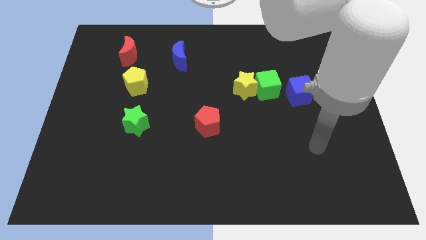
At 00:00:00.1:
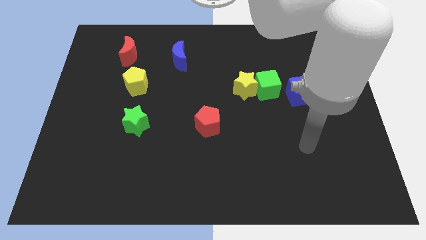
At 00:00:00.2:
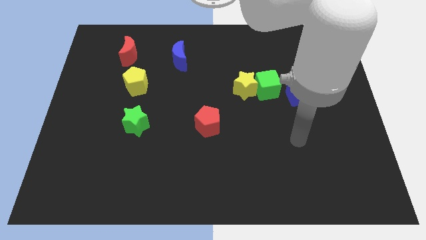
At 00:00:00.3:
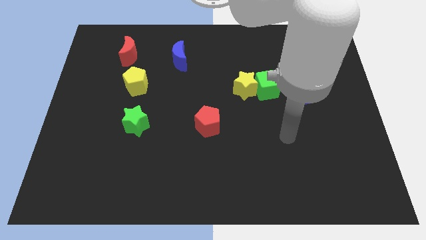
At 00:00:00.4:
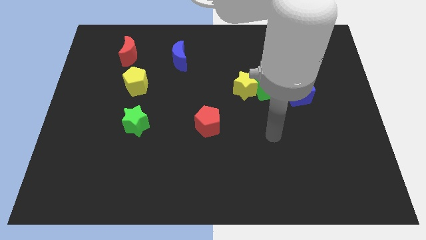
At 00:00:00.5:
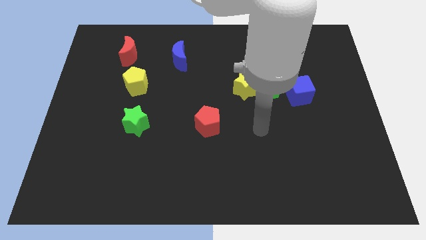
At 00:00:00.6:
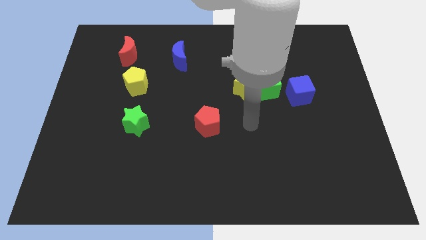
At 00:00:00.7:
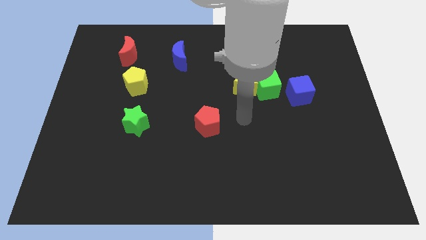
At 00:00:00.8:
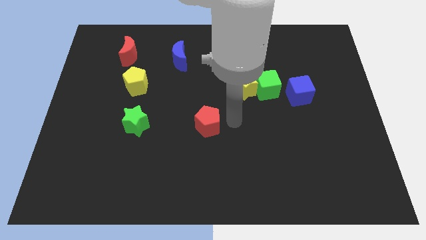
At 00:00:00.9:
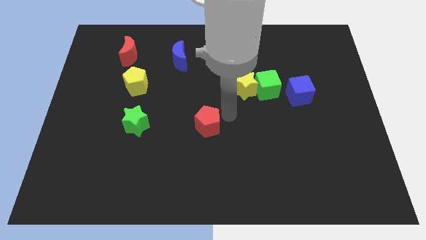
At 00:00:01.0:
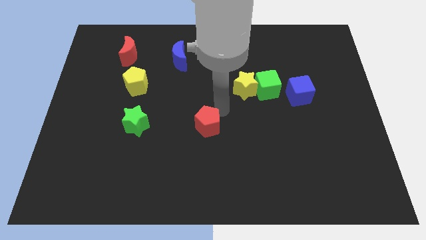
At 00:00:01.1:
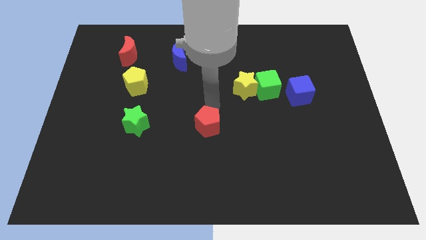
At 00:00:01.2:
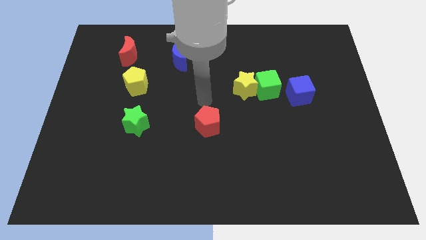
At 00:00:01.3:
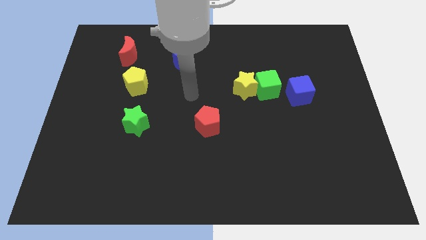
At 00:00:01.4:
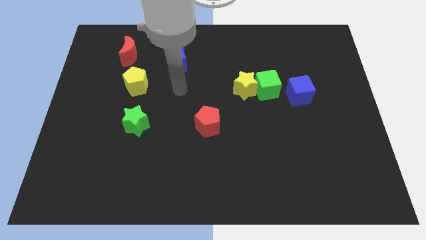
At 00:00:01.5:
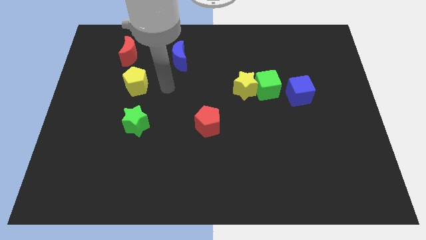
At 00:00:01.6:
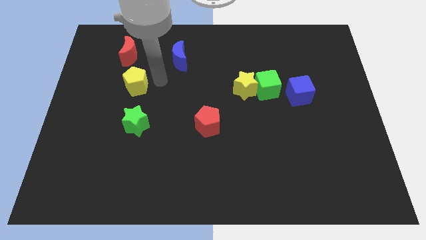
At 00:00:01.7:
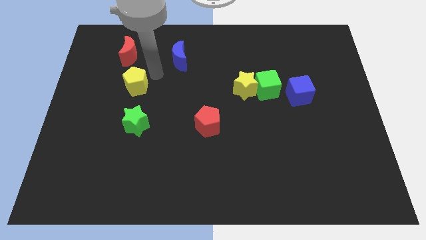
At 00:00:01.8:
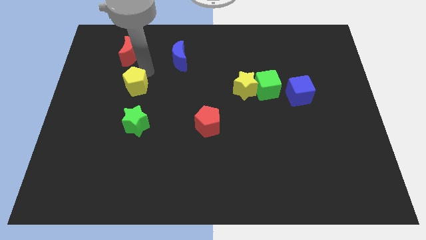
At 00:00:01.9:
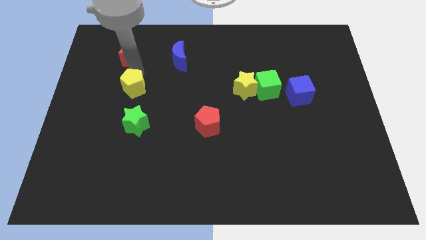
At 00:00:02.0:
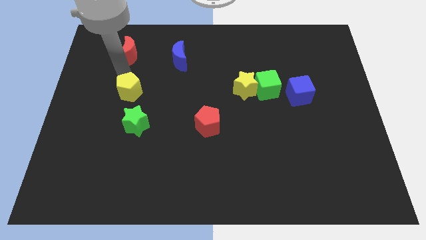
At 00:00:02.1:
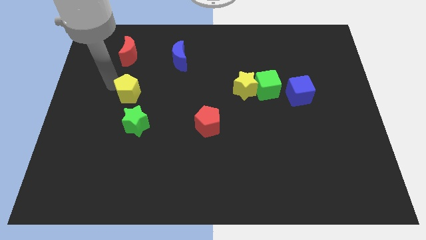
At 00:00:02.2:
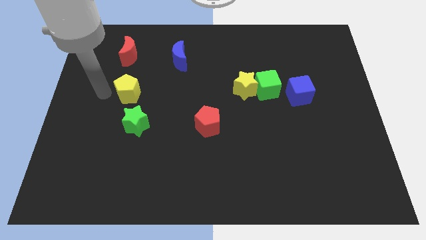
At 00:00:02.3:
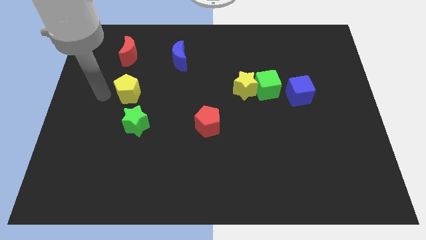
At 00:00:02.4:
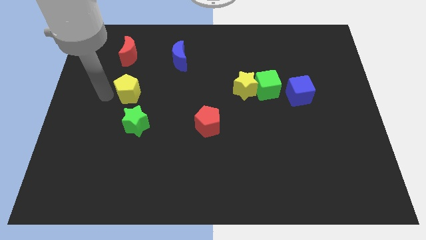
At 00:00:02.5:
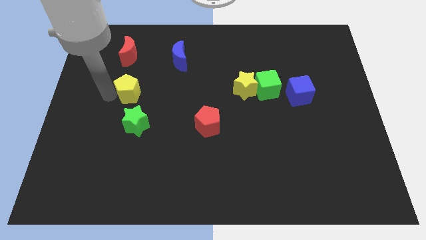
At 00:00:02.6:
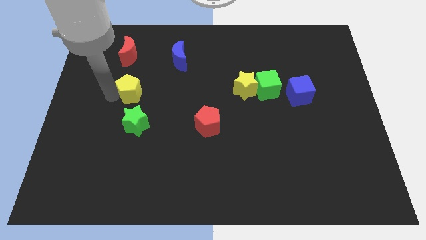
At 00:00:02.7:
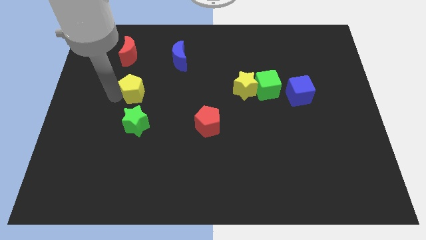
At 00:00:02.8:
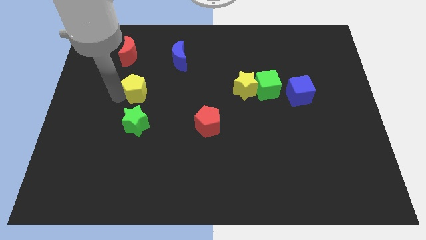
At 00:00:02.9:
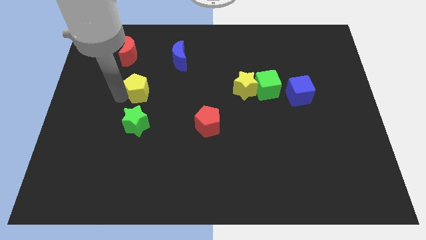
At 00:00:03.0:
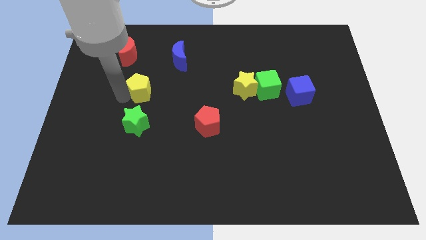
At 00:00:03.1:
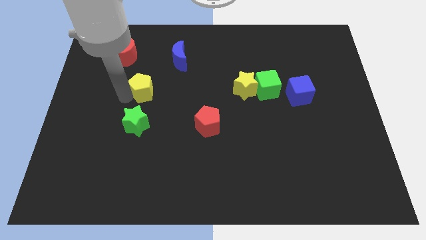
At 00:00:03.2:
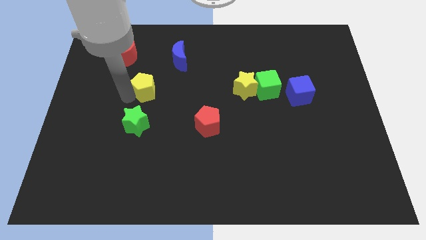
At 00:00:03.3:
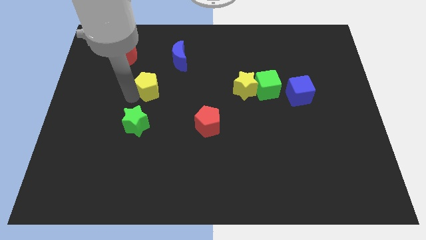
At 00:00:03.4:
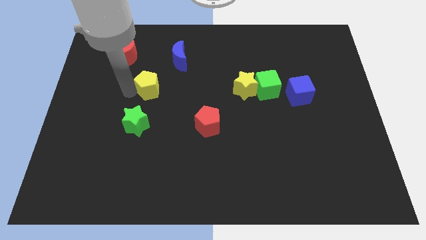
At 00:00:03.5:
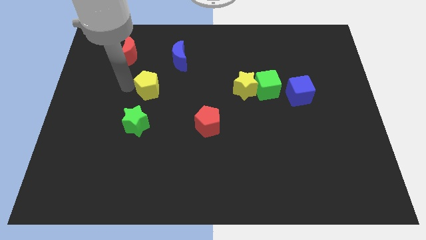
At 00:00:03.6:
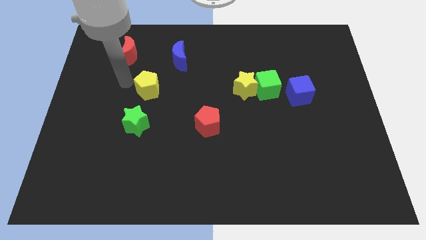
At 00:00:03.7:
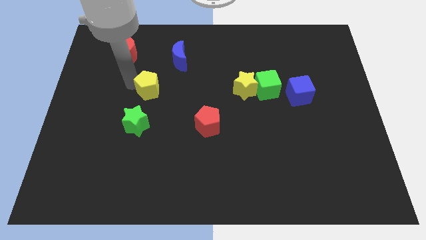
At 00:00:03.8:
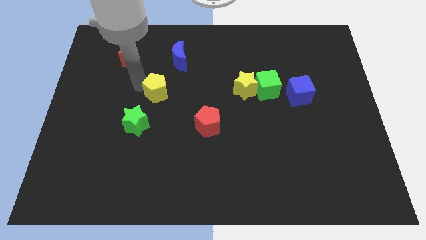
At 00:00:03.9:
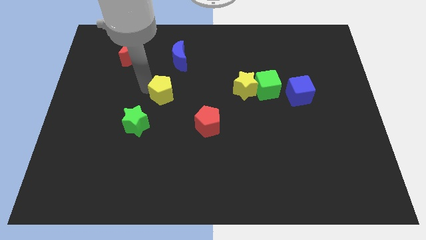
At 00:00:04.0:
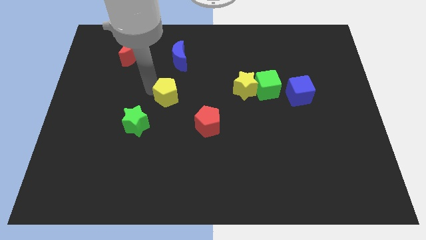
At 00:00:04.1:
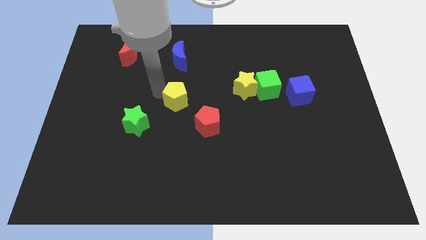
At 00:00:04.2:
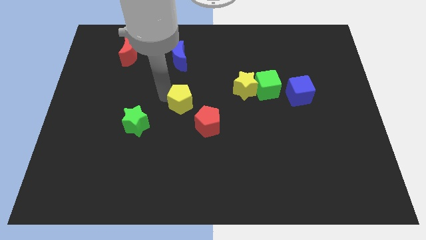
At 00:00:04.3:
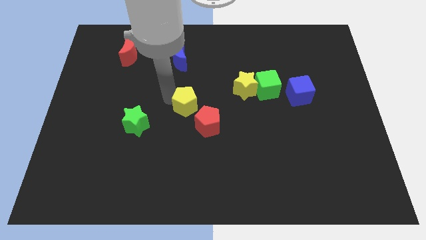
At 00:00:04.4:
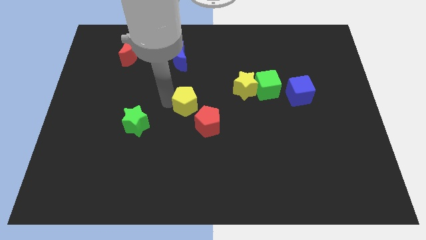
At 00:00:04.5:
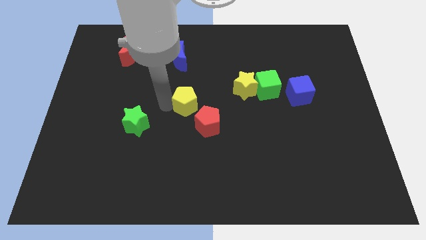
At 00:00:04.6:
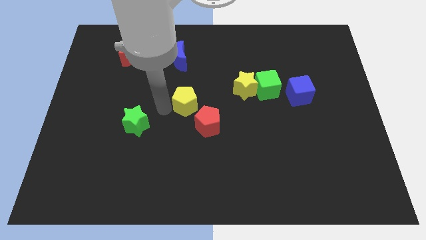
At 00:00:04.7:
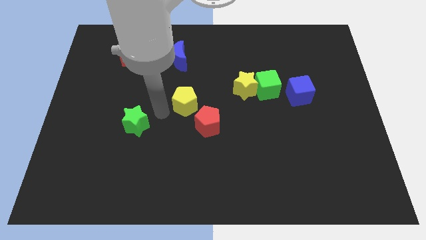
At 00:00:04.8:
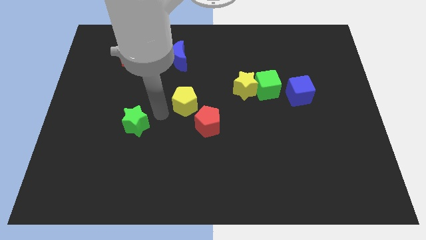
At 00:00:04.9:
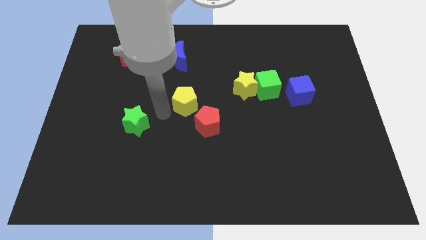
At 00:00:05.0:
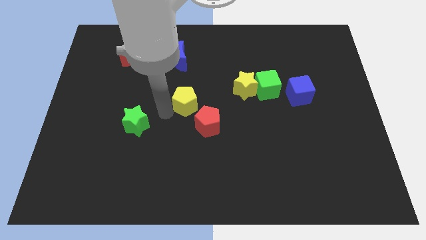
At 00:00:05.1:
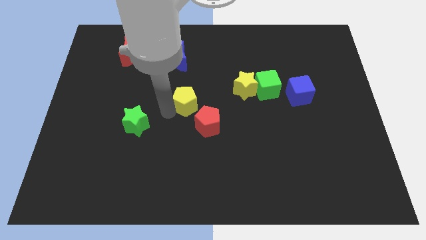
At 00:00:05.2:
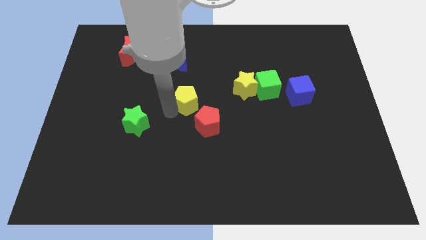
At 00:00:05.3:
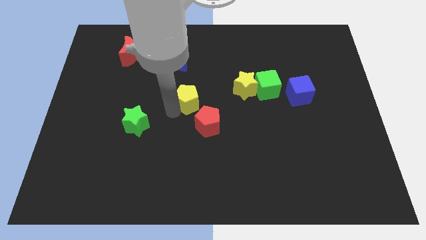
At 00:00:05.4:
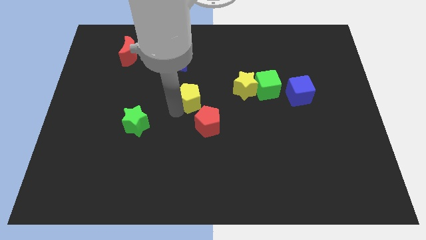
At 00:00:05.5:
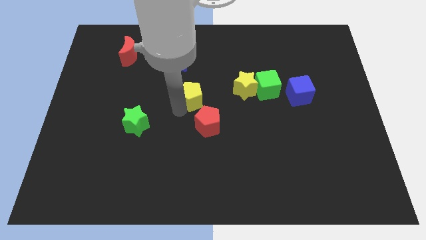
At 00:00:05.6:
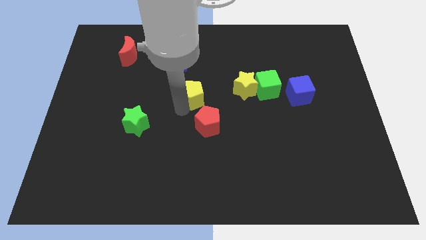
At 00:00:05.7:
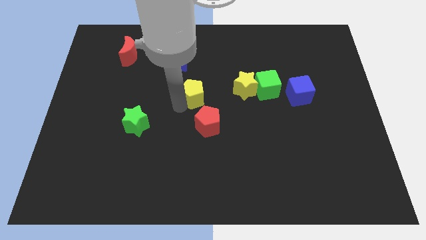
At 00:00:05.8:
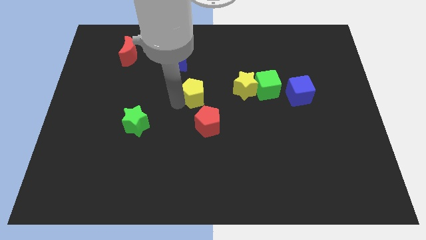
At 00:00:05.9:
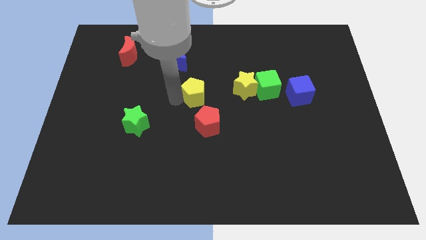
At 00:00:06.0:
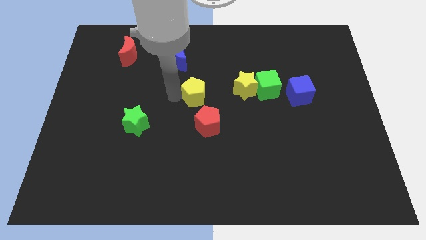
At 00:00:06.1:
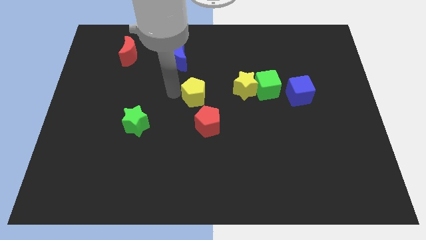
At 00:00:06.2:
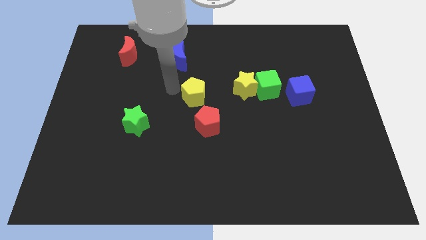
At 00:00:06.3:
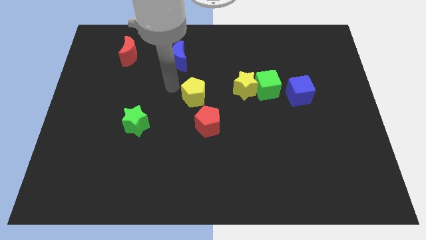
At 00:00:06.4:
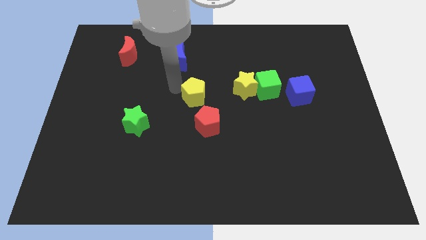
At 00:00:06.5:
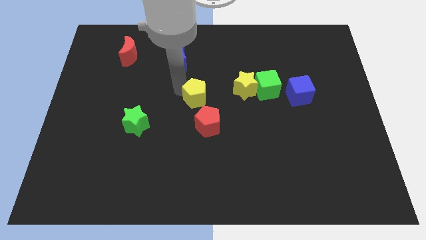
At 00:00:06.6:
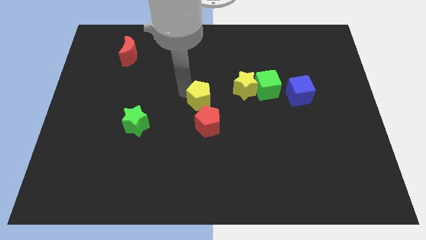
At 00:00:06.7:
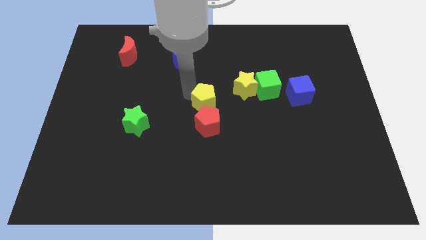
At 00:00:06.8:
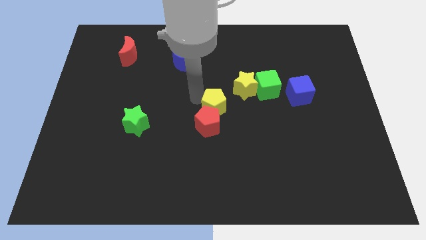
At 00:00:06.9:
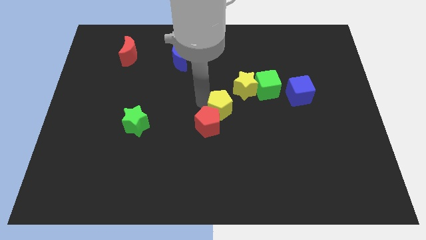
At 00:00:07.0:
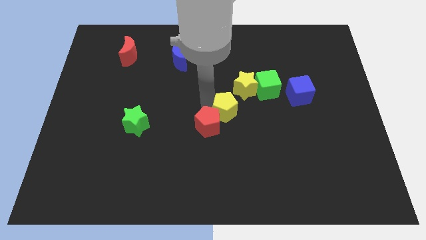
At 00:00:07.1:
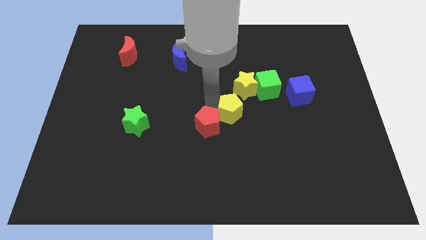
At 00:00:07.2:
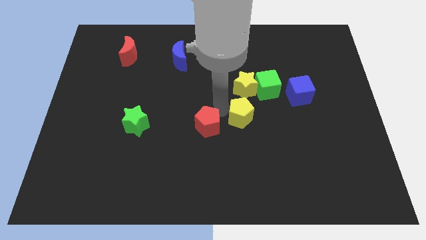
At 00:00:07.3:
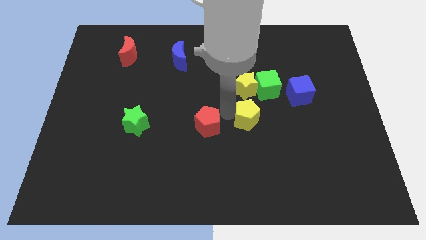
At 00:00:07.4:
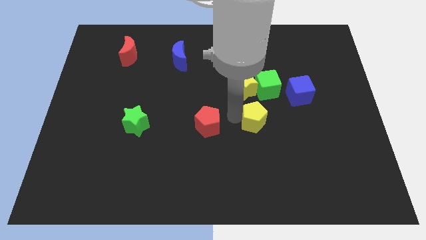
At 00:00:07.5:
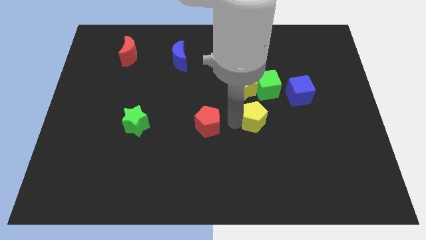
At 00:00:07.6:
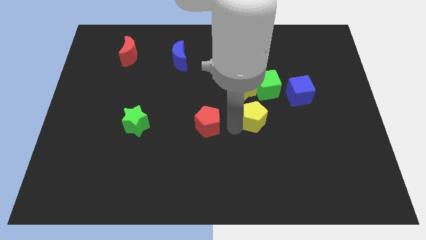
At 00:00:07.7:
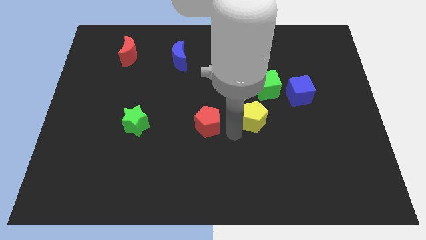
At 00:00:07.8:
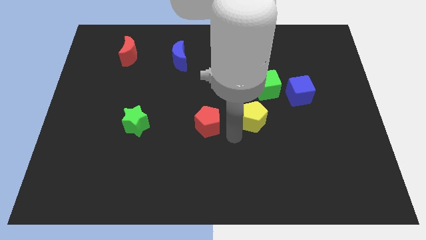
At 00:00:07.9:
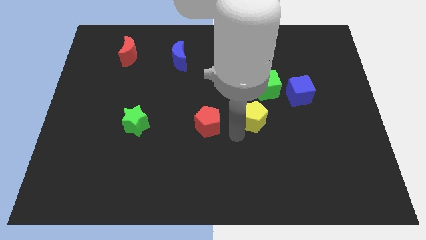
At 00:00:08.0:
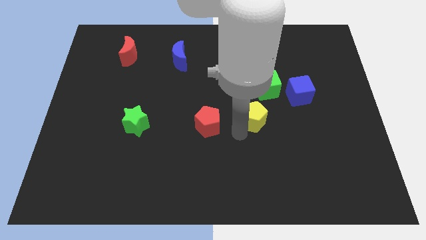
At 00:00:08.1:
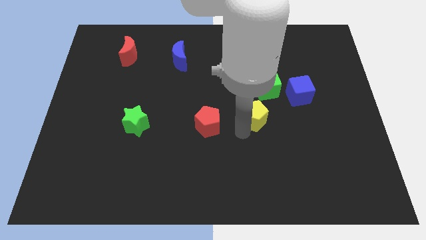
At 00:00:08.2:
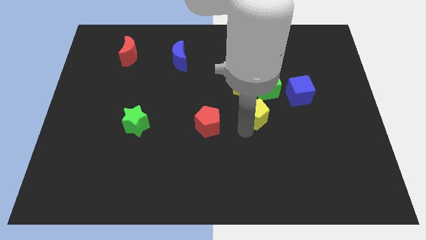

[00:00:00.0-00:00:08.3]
slide the yellow pentagon to the bottom right of the yellow star
